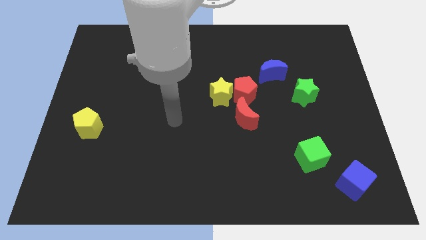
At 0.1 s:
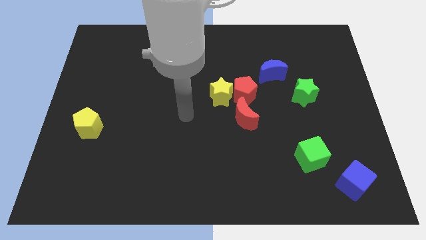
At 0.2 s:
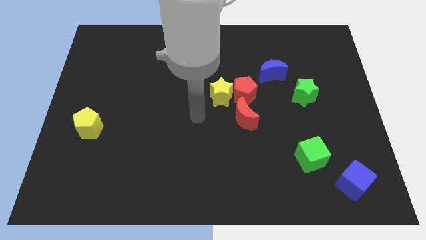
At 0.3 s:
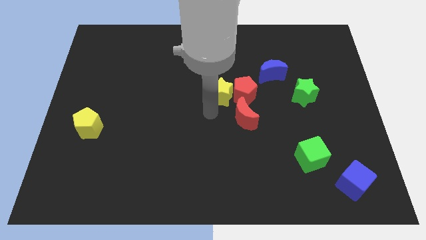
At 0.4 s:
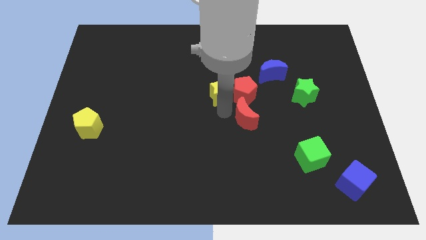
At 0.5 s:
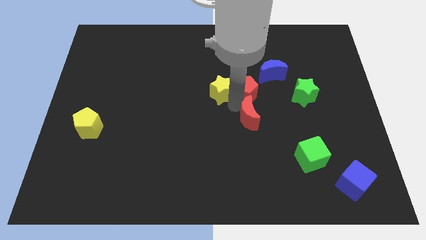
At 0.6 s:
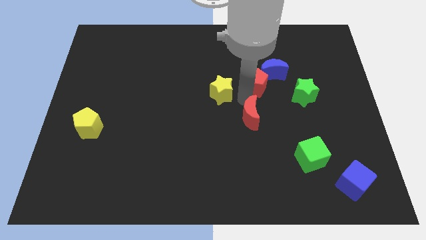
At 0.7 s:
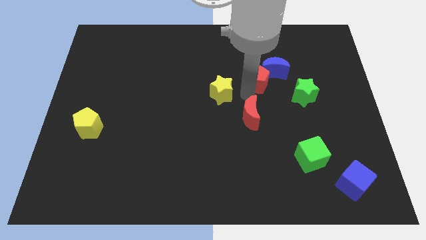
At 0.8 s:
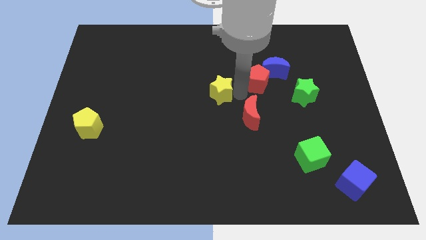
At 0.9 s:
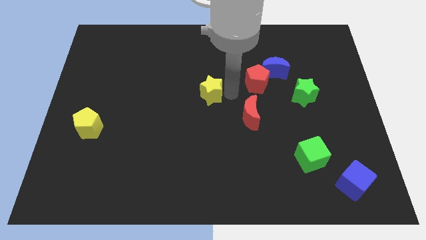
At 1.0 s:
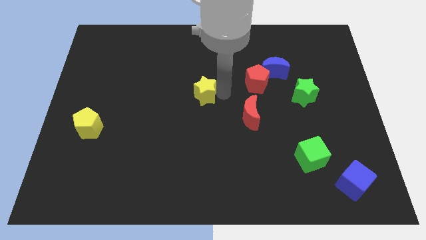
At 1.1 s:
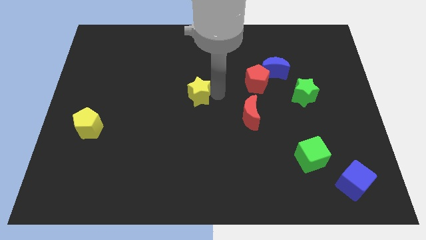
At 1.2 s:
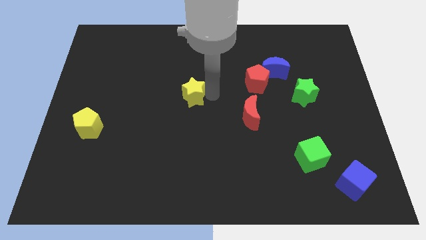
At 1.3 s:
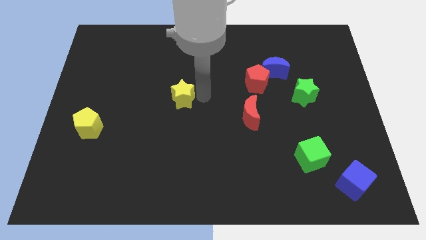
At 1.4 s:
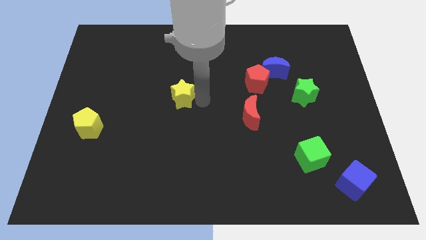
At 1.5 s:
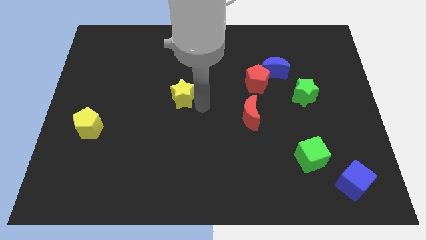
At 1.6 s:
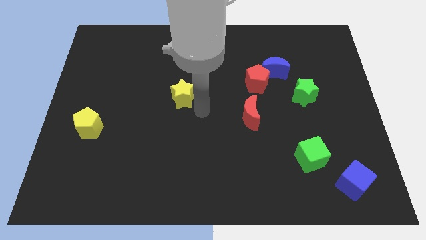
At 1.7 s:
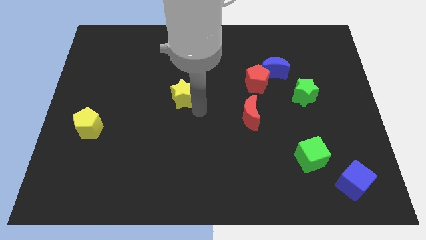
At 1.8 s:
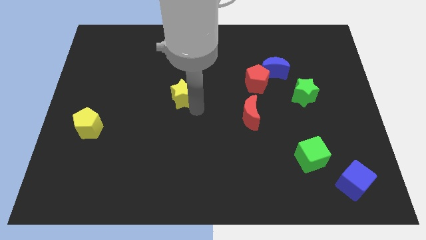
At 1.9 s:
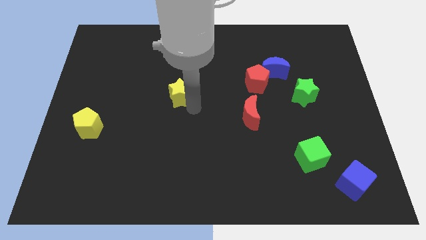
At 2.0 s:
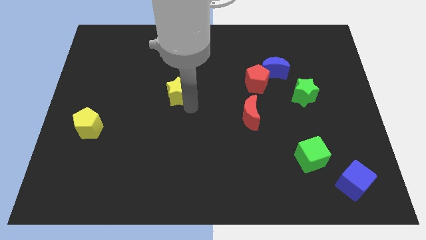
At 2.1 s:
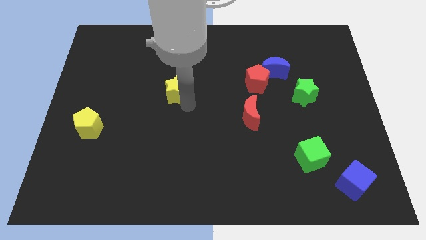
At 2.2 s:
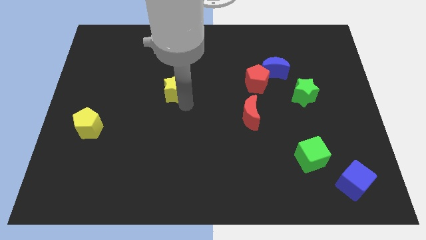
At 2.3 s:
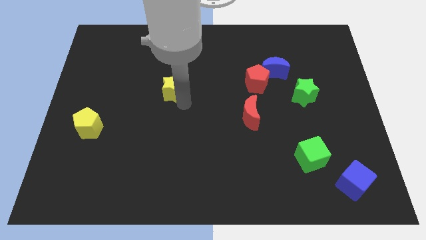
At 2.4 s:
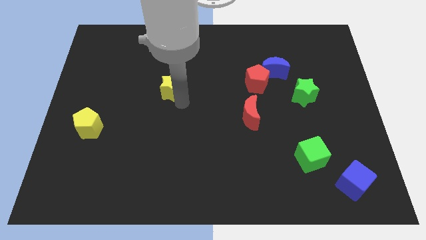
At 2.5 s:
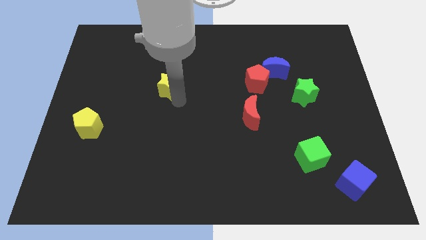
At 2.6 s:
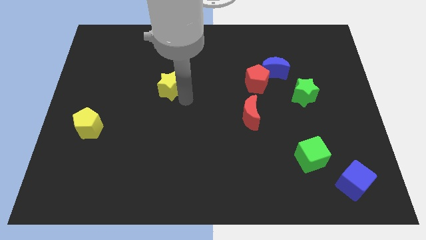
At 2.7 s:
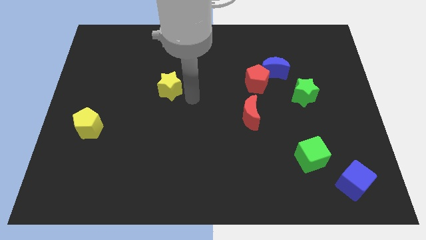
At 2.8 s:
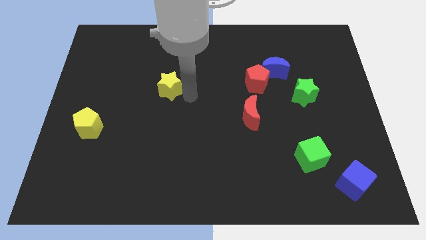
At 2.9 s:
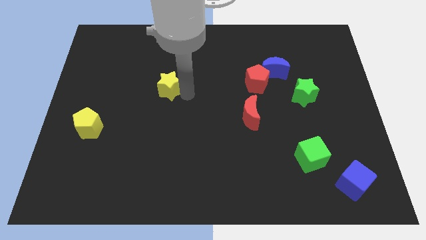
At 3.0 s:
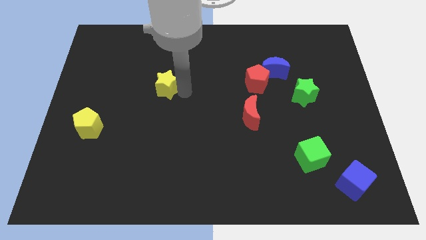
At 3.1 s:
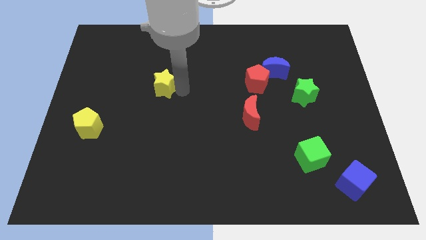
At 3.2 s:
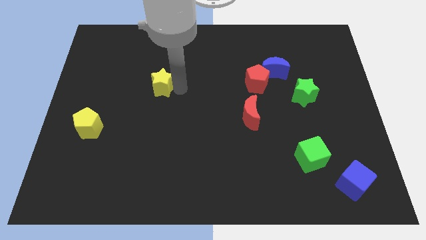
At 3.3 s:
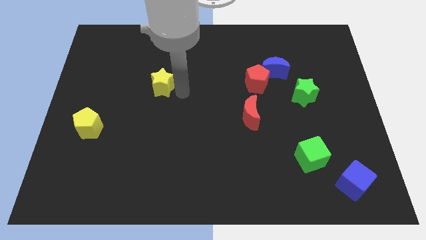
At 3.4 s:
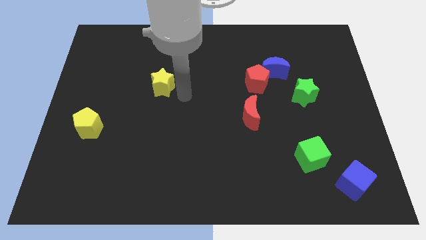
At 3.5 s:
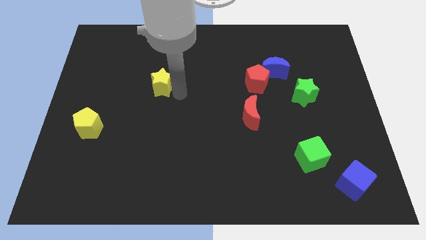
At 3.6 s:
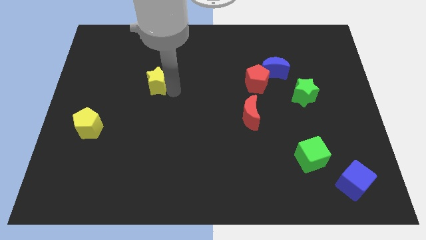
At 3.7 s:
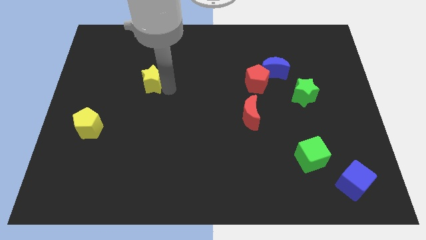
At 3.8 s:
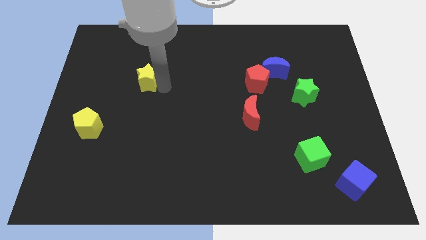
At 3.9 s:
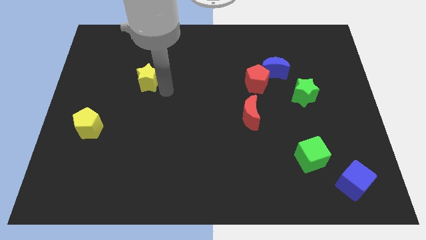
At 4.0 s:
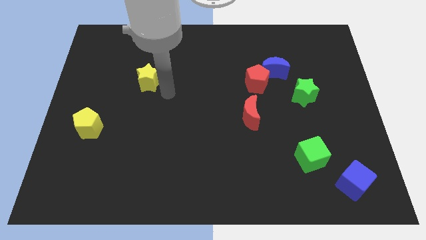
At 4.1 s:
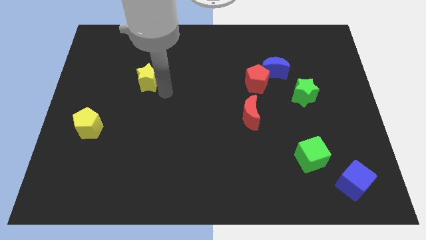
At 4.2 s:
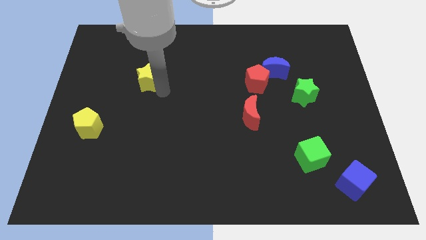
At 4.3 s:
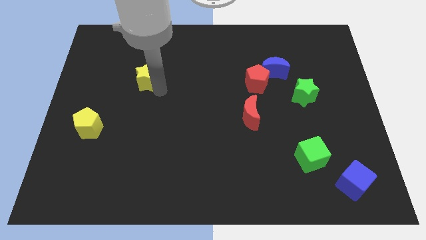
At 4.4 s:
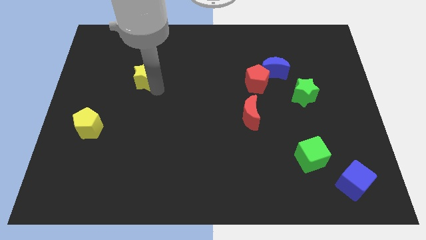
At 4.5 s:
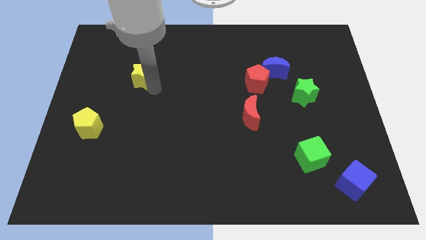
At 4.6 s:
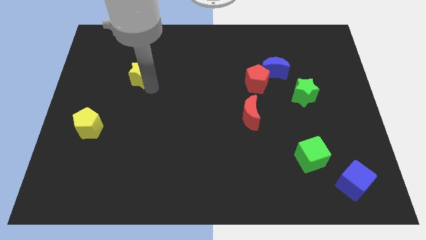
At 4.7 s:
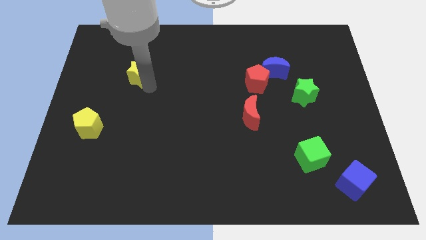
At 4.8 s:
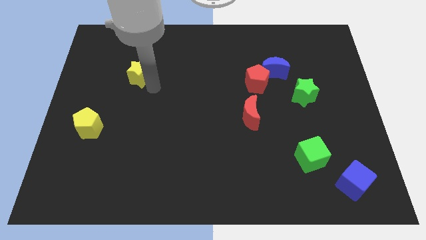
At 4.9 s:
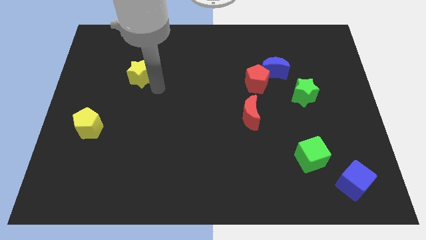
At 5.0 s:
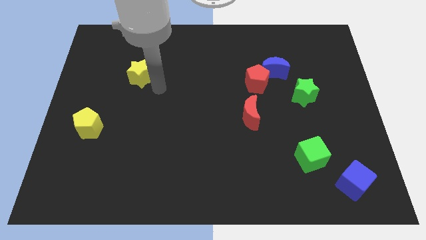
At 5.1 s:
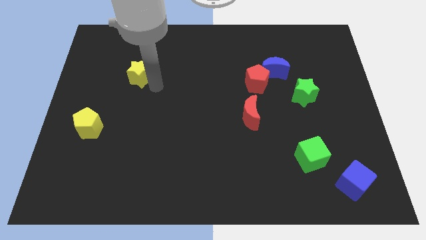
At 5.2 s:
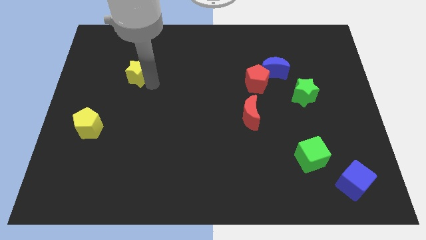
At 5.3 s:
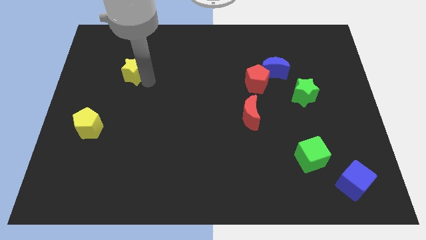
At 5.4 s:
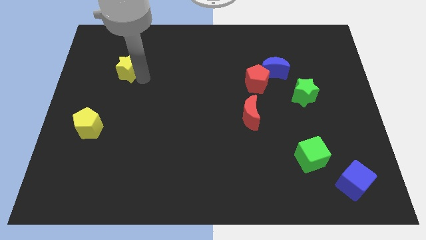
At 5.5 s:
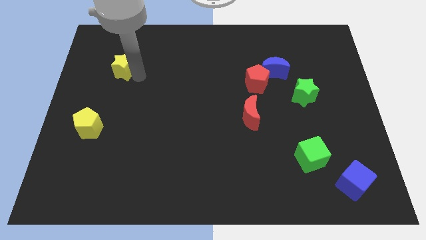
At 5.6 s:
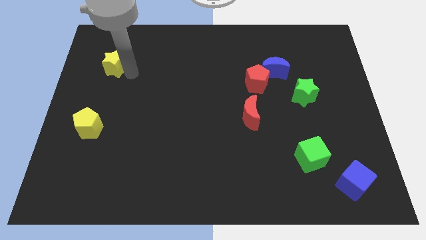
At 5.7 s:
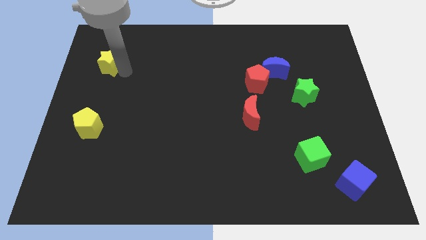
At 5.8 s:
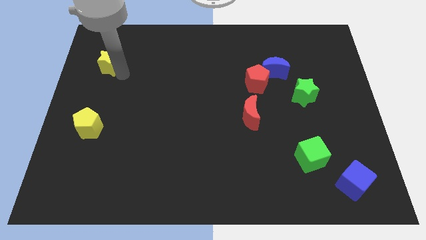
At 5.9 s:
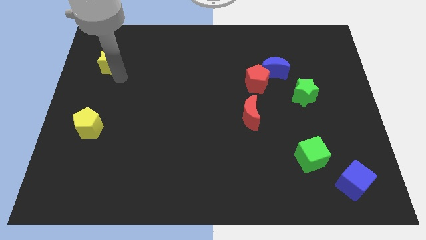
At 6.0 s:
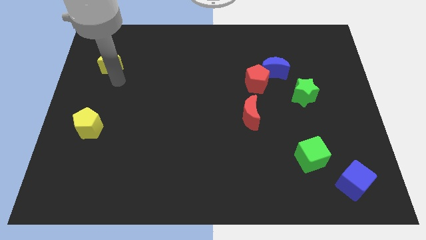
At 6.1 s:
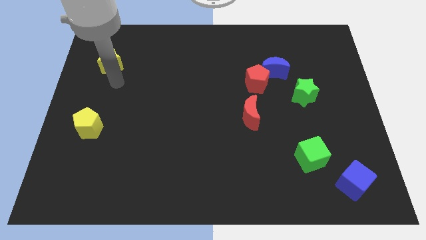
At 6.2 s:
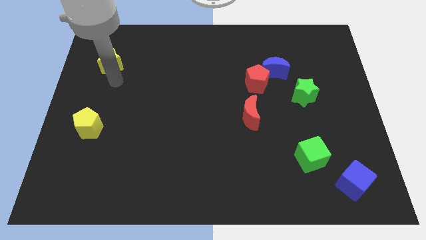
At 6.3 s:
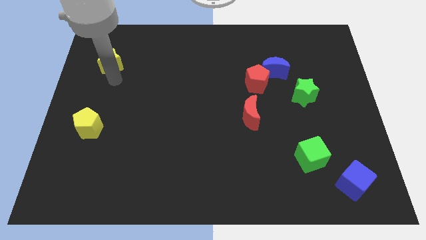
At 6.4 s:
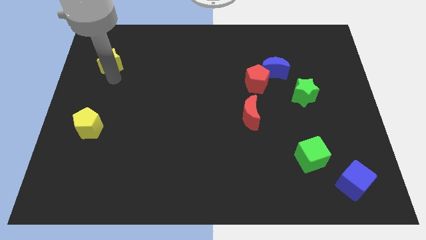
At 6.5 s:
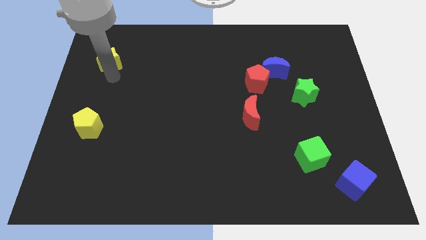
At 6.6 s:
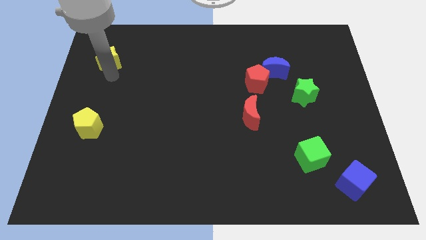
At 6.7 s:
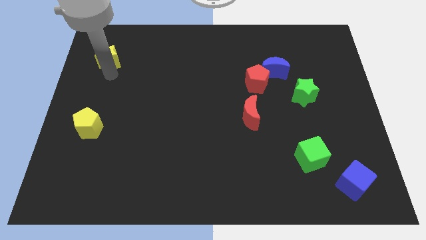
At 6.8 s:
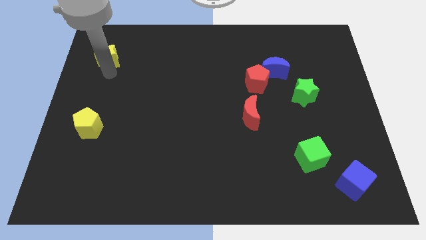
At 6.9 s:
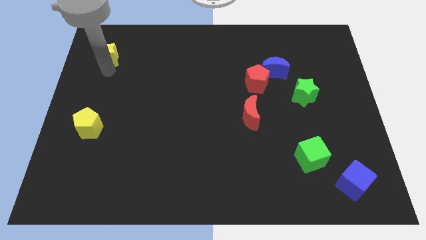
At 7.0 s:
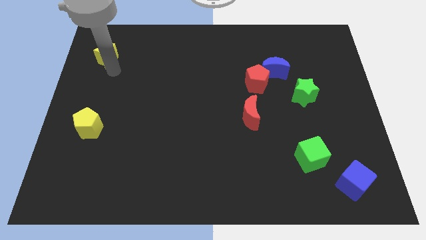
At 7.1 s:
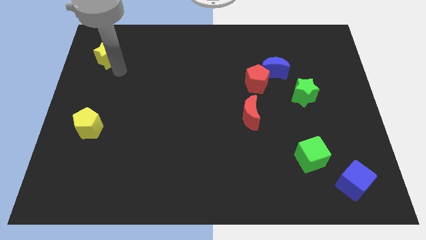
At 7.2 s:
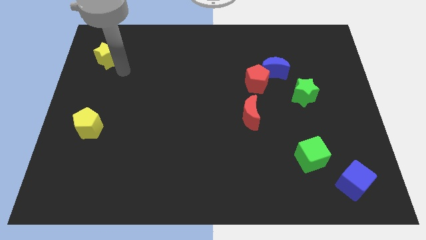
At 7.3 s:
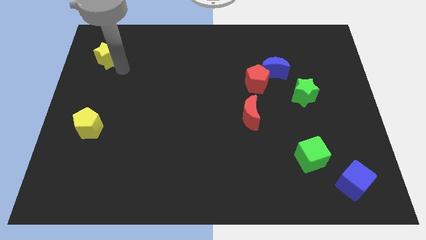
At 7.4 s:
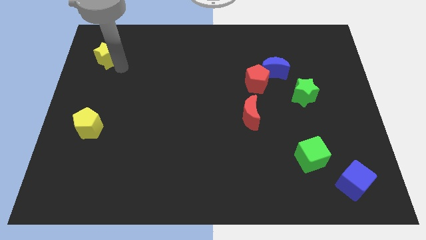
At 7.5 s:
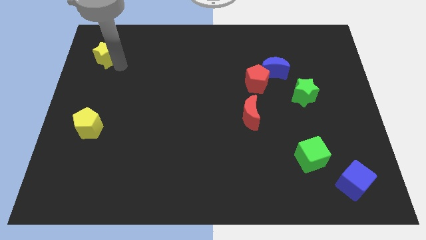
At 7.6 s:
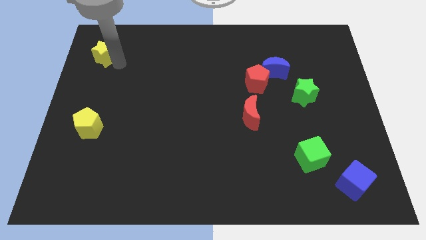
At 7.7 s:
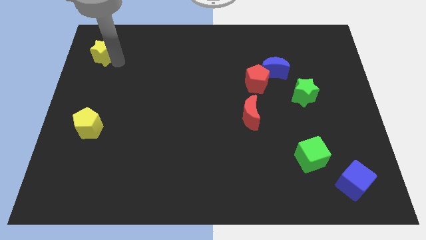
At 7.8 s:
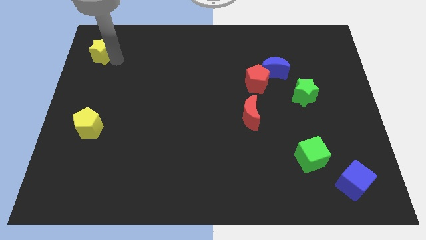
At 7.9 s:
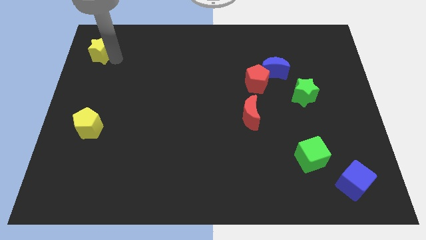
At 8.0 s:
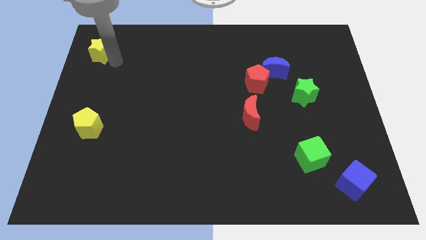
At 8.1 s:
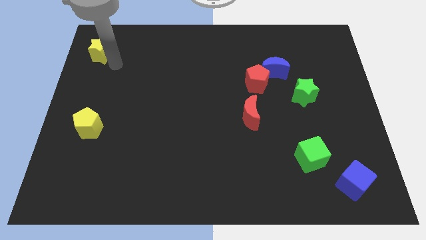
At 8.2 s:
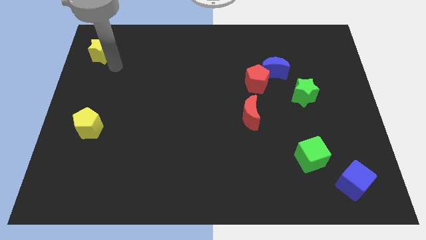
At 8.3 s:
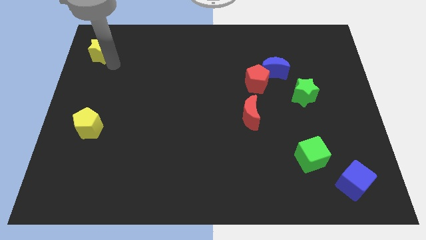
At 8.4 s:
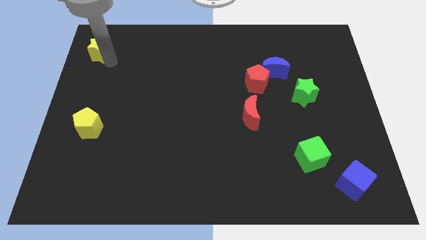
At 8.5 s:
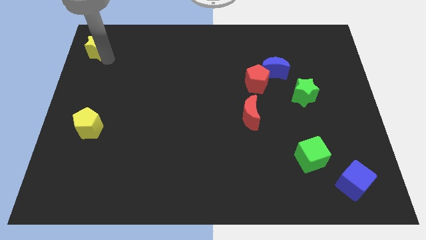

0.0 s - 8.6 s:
move the yellow star to the upper left corner
